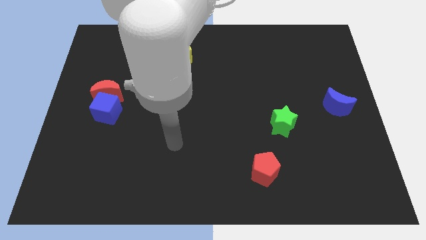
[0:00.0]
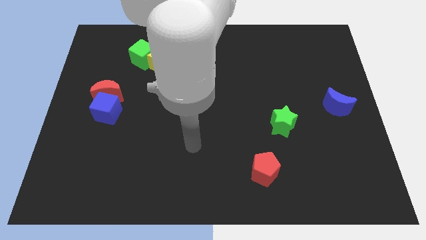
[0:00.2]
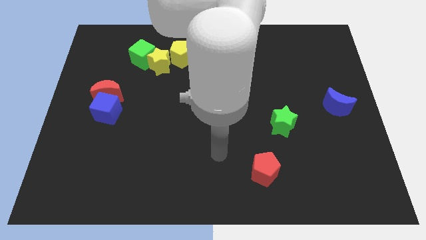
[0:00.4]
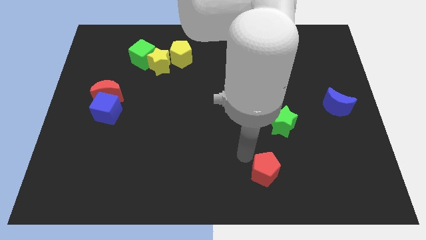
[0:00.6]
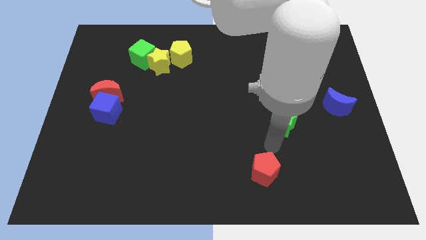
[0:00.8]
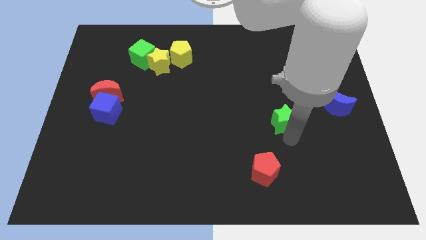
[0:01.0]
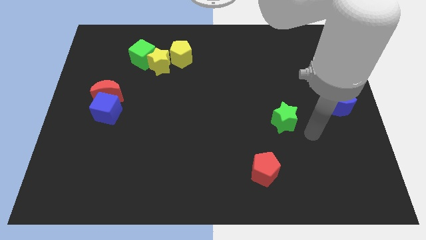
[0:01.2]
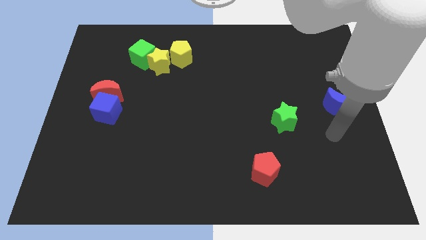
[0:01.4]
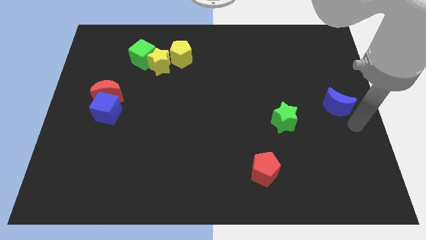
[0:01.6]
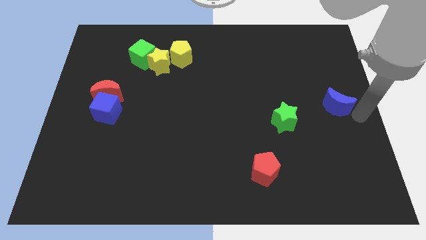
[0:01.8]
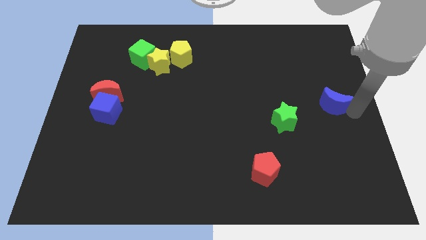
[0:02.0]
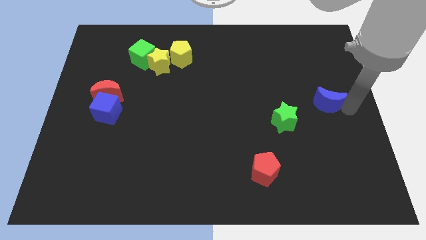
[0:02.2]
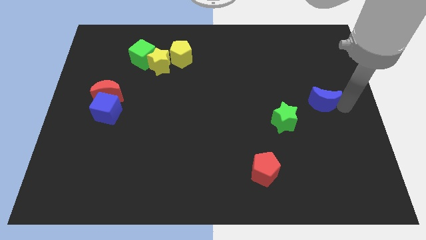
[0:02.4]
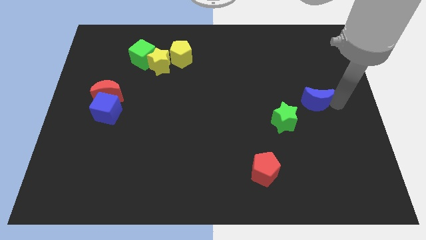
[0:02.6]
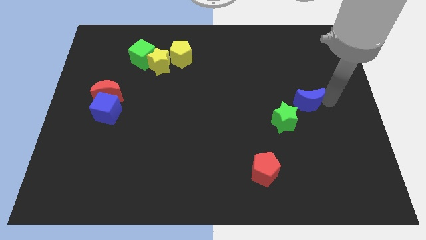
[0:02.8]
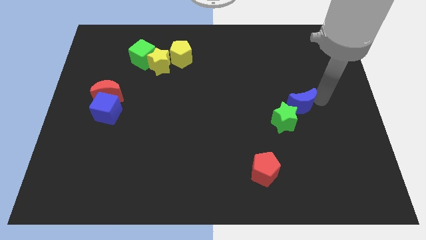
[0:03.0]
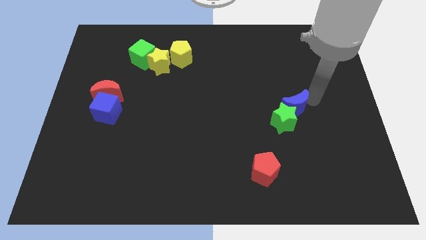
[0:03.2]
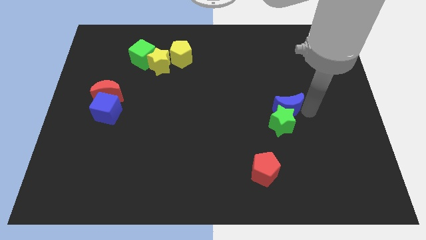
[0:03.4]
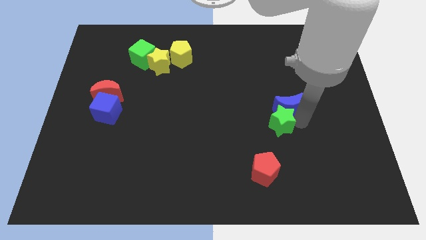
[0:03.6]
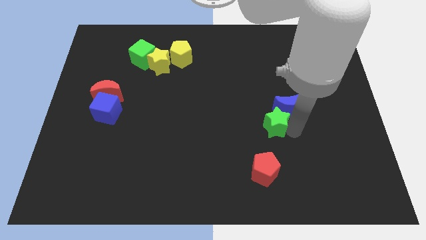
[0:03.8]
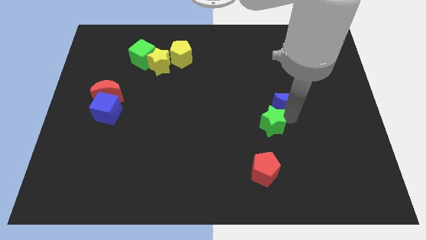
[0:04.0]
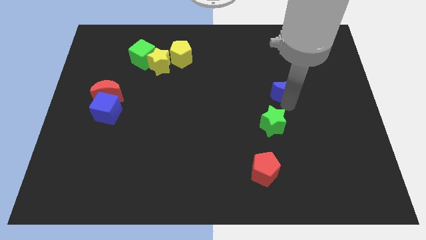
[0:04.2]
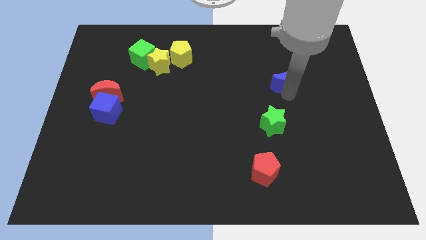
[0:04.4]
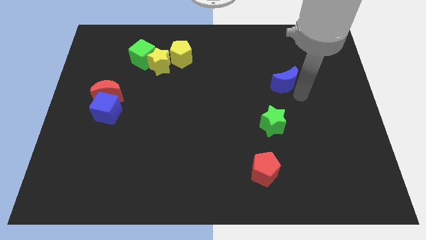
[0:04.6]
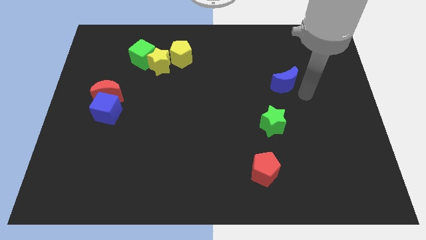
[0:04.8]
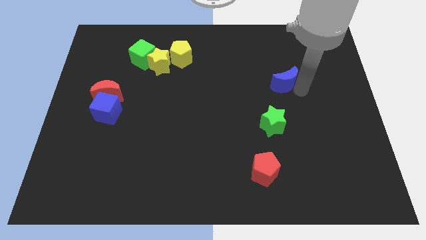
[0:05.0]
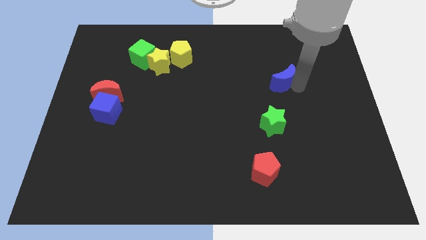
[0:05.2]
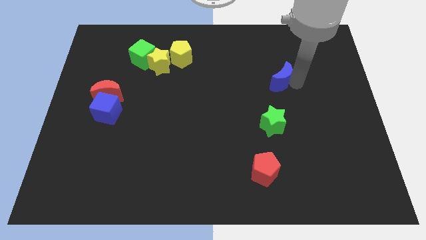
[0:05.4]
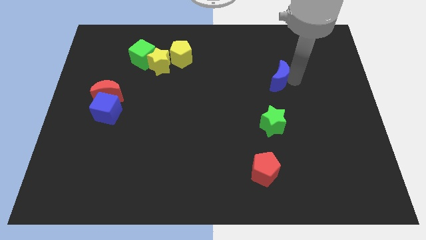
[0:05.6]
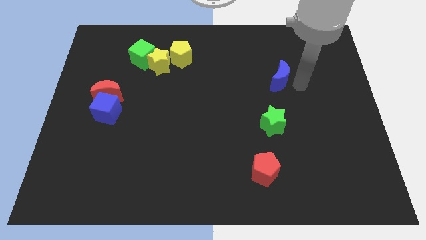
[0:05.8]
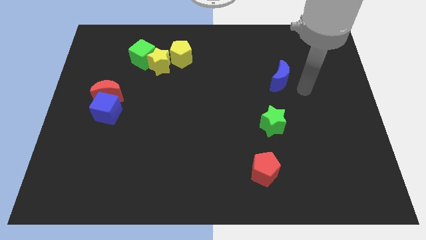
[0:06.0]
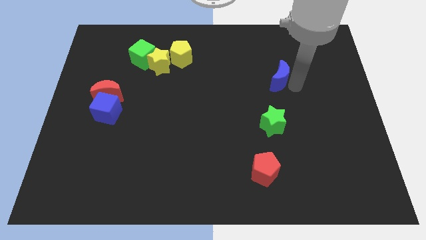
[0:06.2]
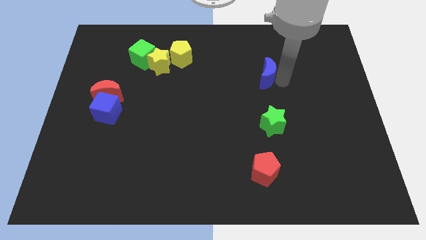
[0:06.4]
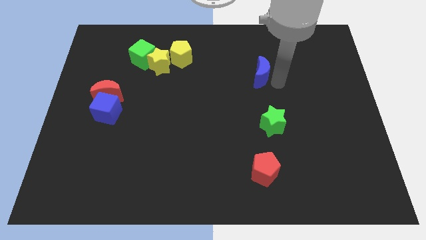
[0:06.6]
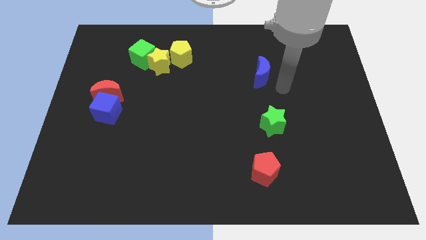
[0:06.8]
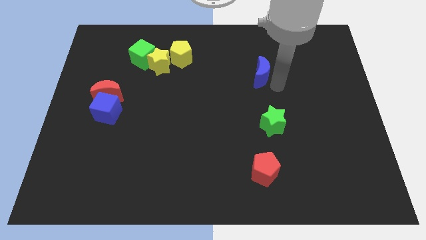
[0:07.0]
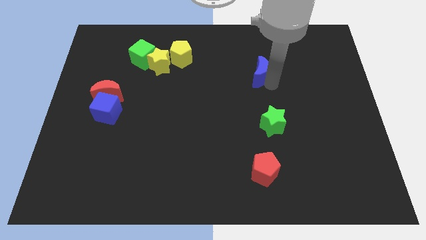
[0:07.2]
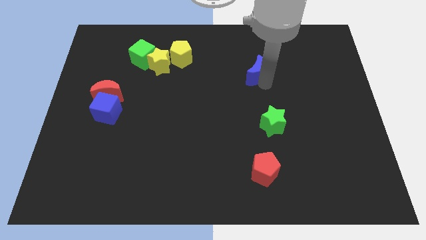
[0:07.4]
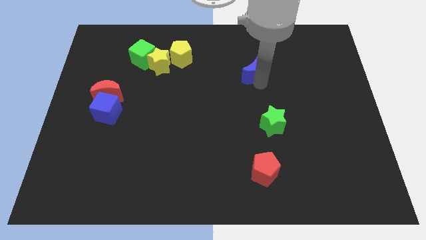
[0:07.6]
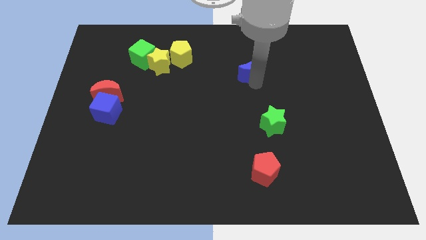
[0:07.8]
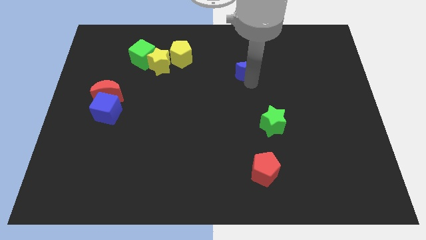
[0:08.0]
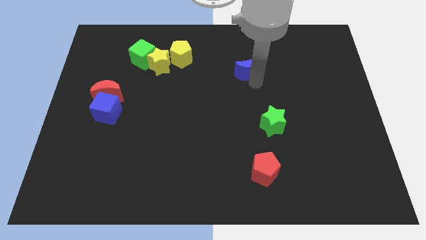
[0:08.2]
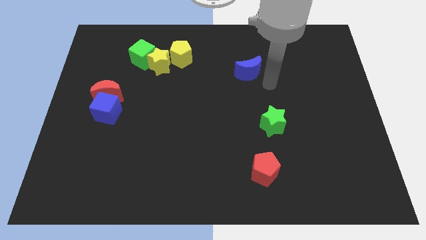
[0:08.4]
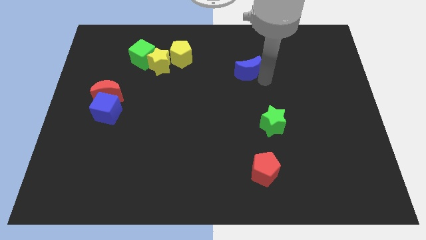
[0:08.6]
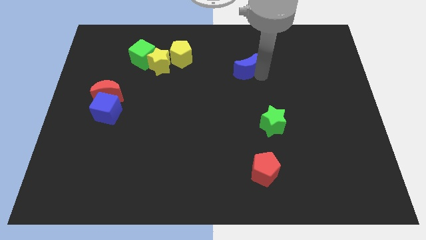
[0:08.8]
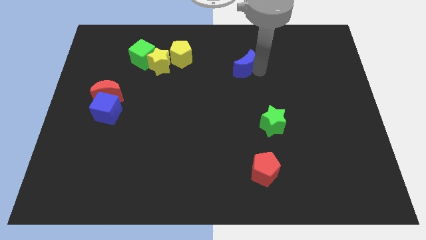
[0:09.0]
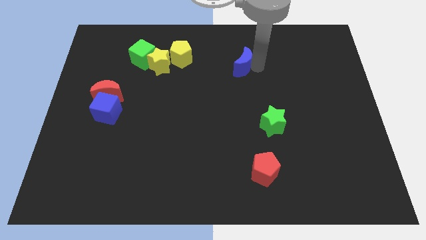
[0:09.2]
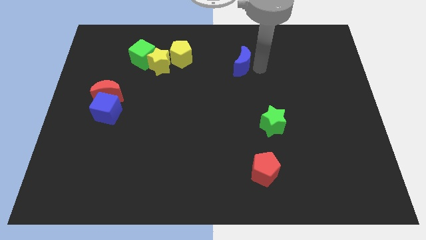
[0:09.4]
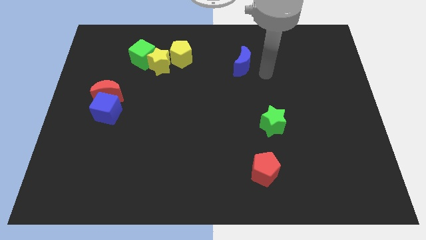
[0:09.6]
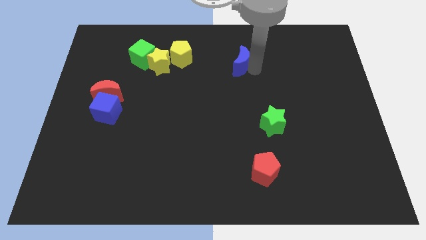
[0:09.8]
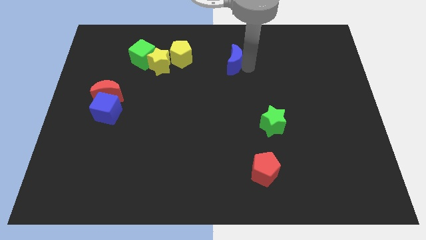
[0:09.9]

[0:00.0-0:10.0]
move the blue moon just right of the yellow pentagon

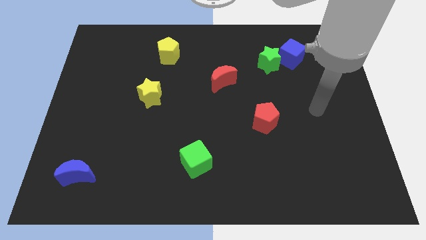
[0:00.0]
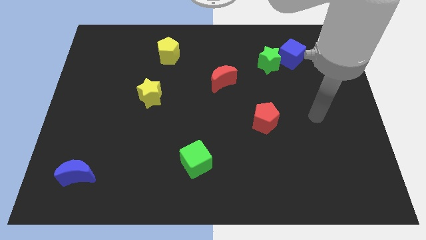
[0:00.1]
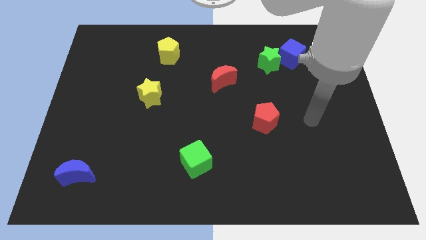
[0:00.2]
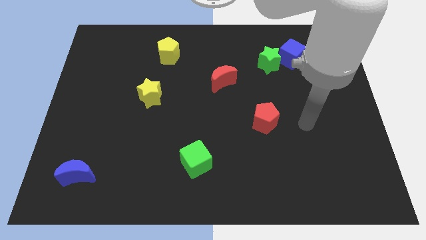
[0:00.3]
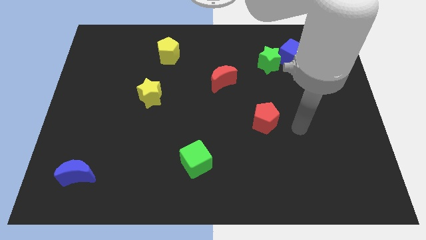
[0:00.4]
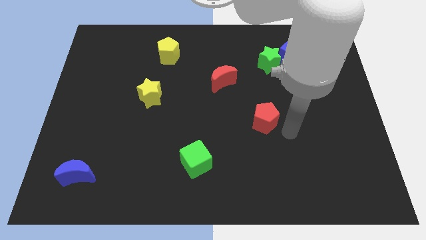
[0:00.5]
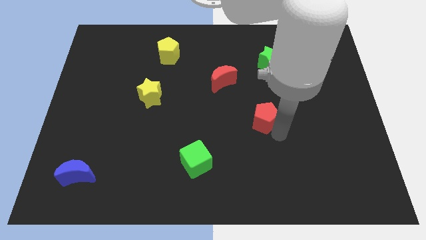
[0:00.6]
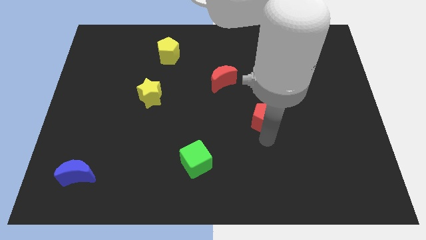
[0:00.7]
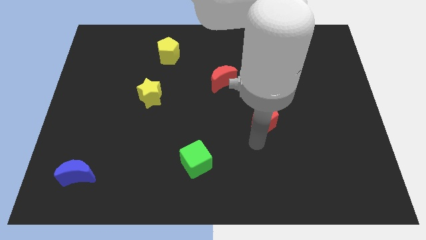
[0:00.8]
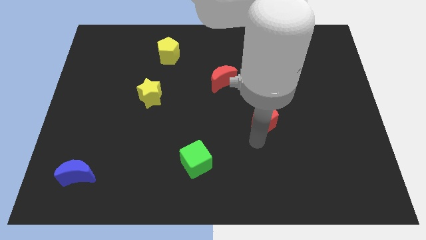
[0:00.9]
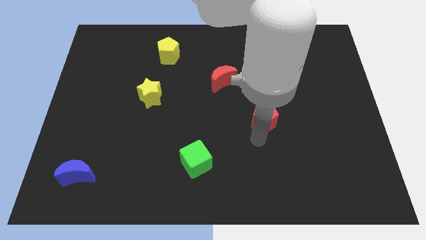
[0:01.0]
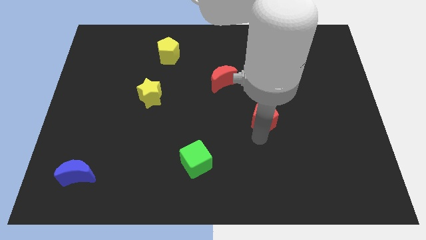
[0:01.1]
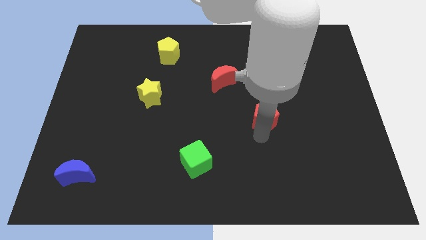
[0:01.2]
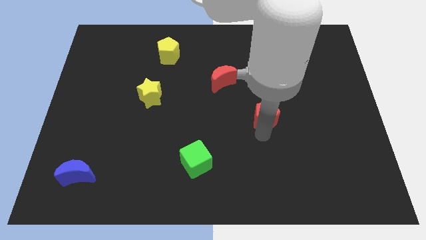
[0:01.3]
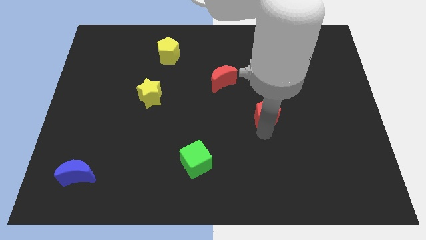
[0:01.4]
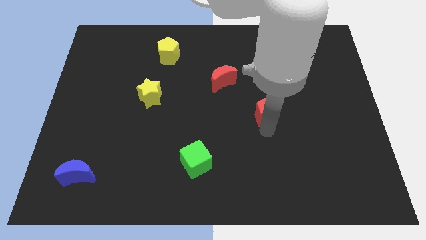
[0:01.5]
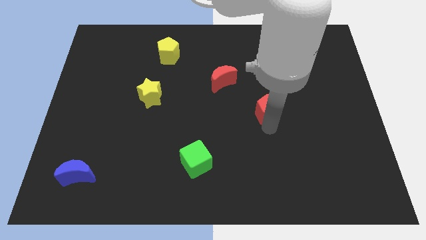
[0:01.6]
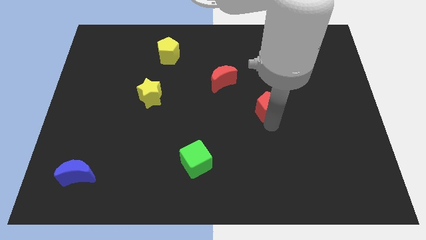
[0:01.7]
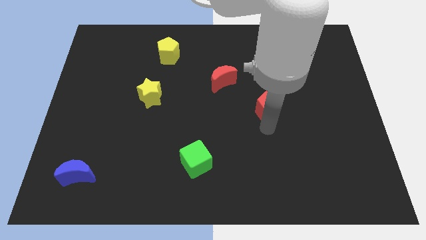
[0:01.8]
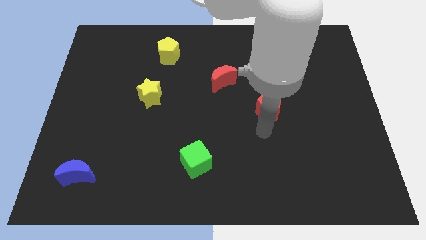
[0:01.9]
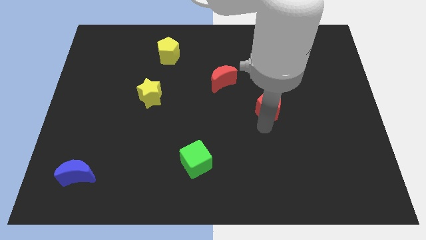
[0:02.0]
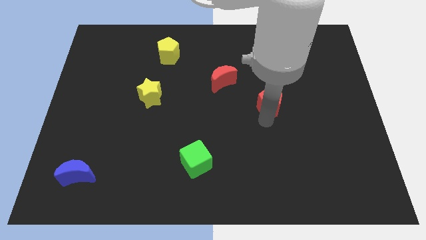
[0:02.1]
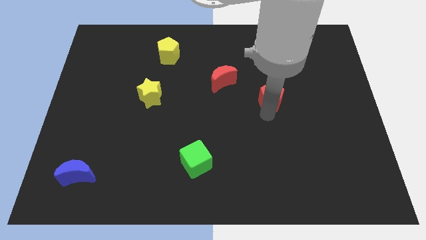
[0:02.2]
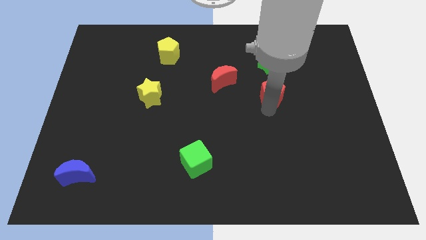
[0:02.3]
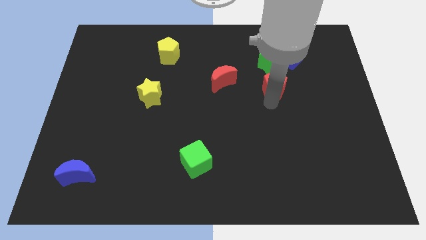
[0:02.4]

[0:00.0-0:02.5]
slide the red pentagon diagonally down and to the left of the blue cube
